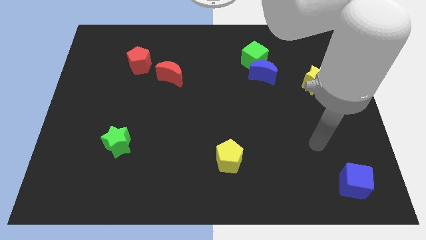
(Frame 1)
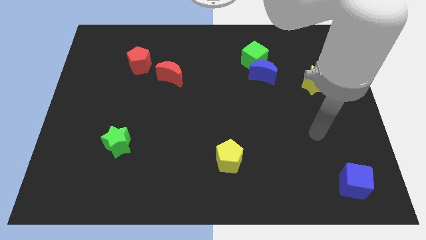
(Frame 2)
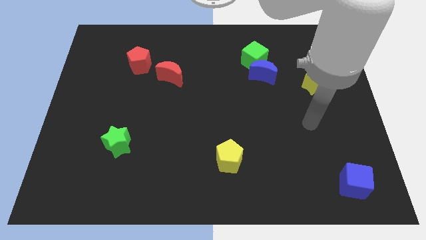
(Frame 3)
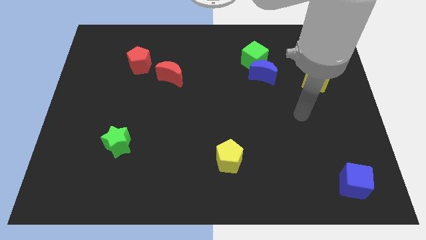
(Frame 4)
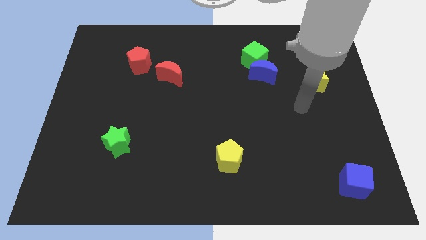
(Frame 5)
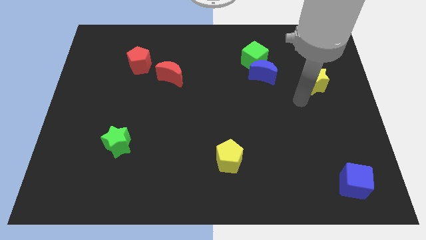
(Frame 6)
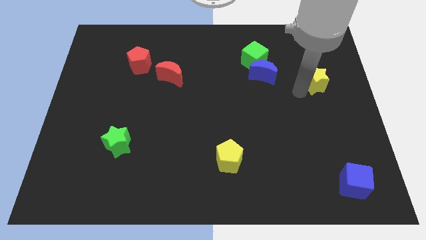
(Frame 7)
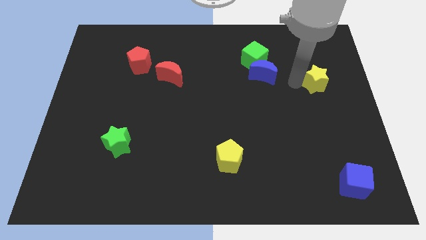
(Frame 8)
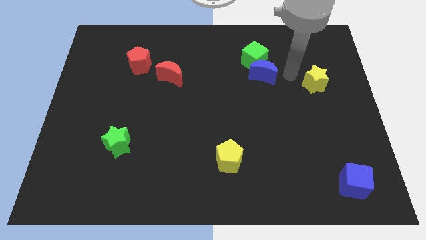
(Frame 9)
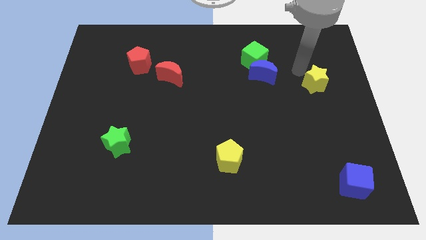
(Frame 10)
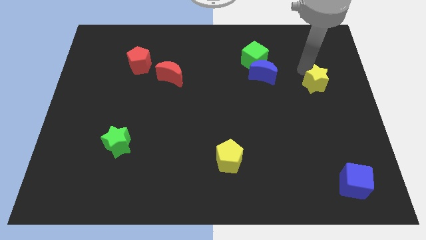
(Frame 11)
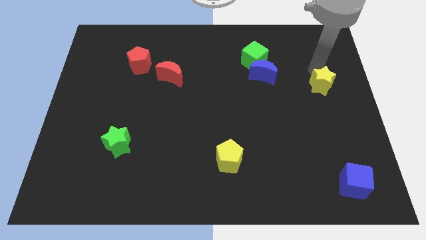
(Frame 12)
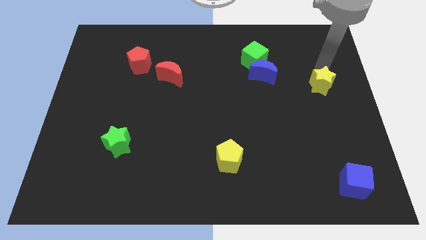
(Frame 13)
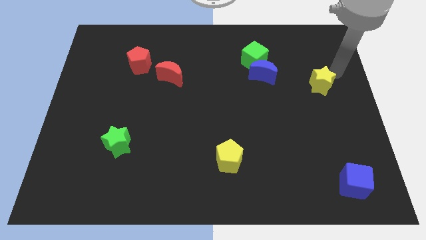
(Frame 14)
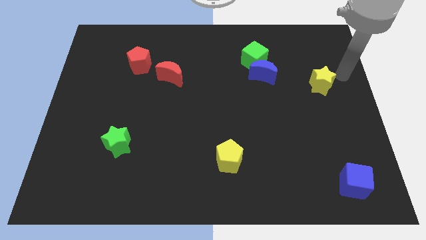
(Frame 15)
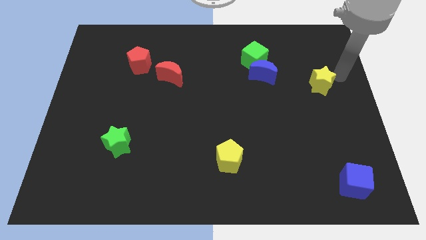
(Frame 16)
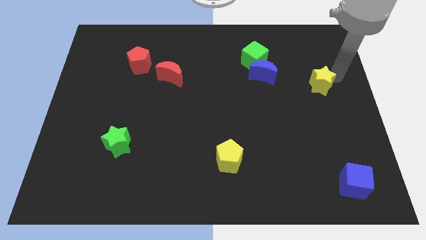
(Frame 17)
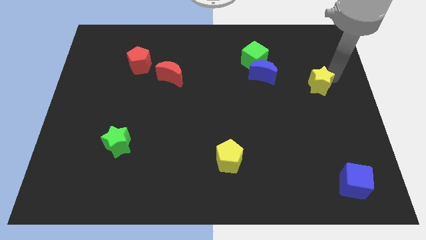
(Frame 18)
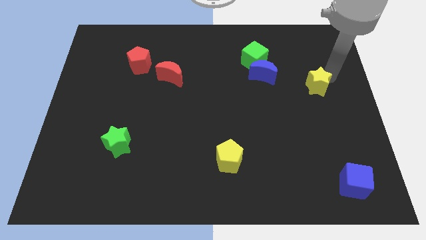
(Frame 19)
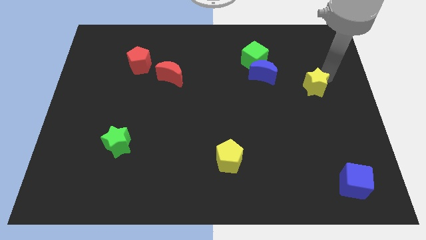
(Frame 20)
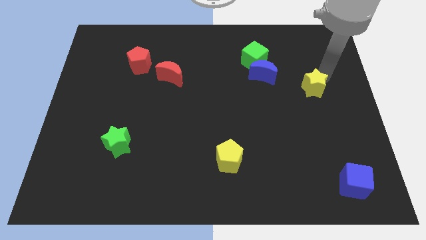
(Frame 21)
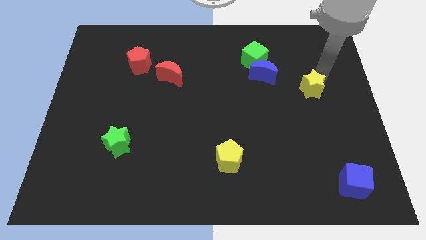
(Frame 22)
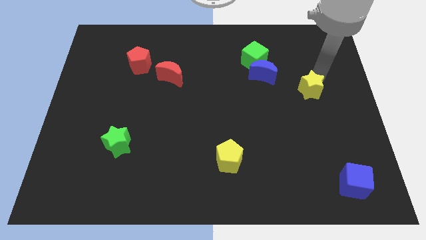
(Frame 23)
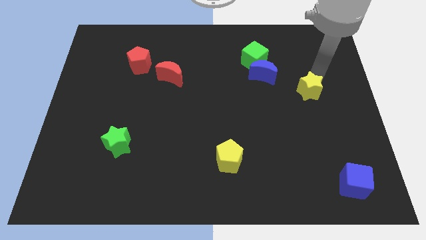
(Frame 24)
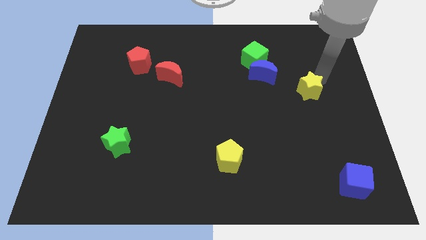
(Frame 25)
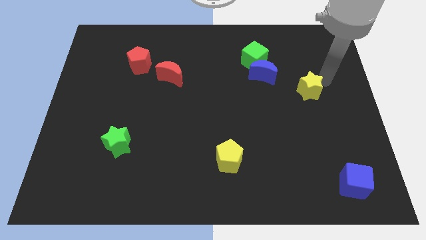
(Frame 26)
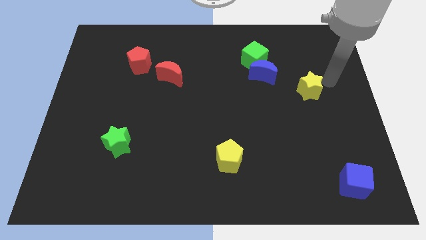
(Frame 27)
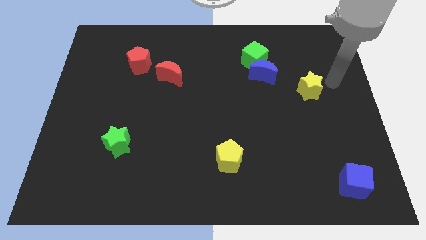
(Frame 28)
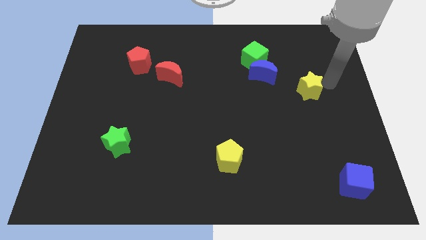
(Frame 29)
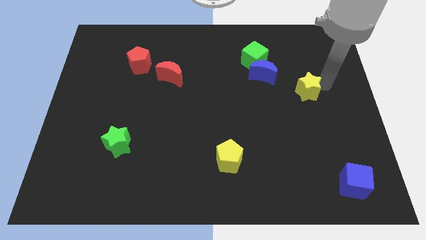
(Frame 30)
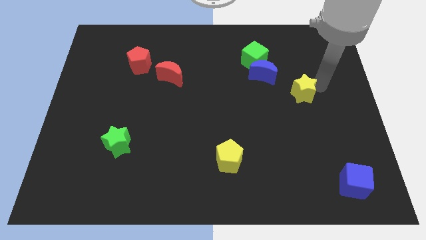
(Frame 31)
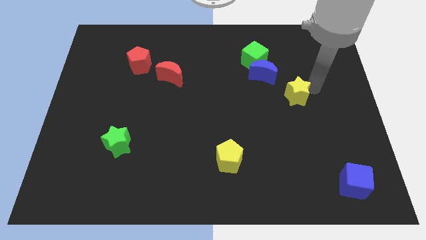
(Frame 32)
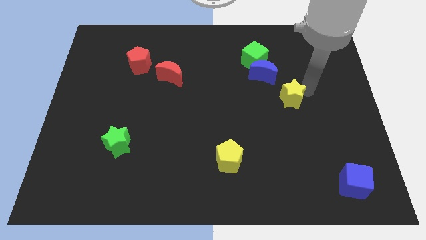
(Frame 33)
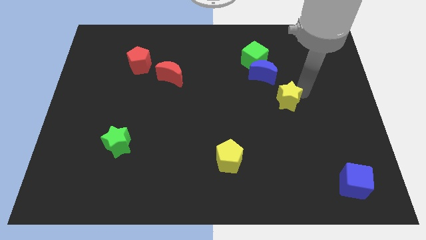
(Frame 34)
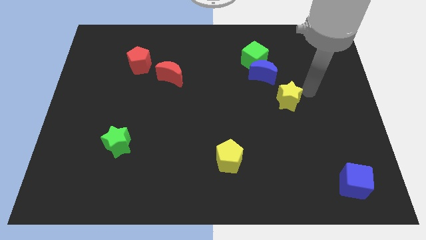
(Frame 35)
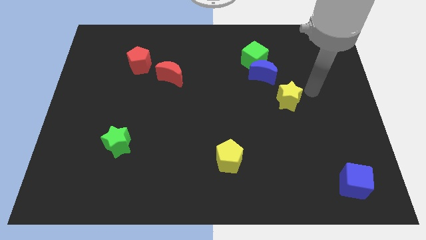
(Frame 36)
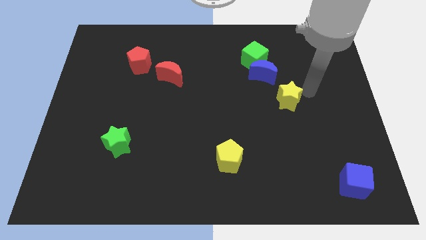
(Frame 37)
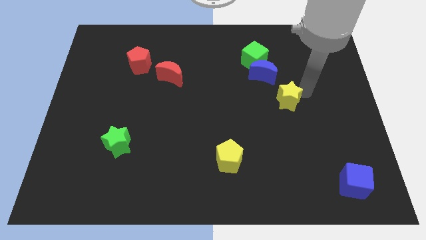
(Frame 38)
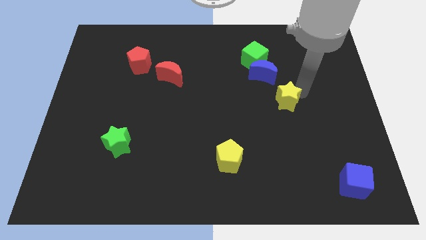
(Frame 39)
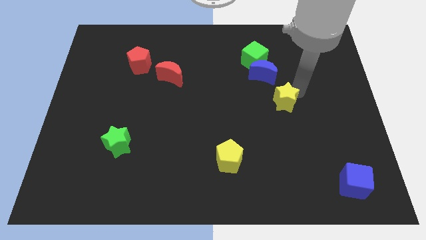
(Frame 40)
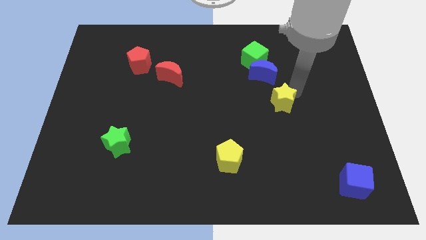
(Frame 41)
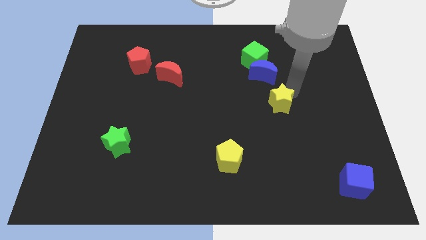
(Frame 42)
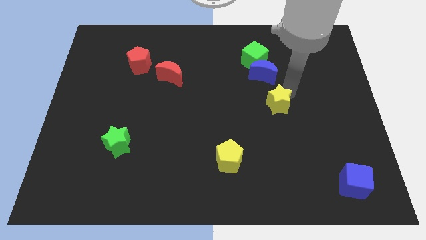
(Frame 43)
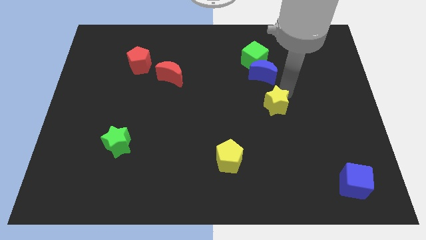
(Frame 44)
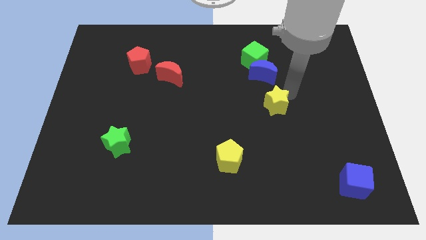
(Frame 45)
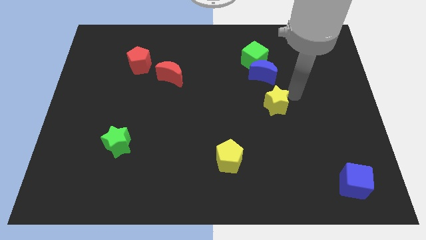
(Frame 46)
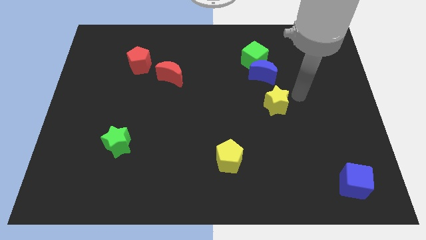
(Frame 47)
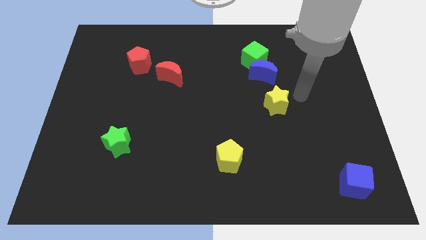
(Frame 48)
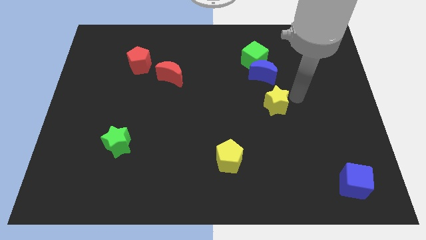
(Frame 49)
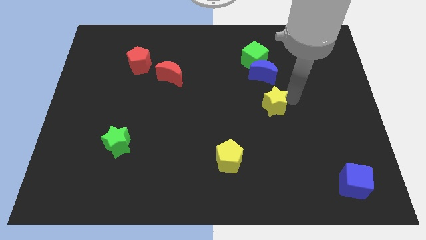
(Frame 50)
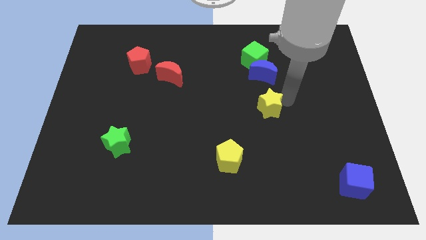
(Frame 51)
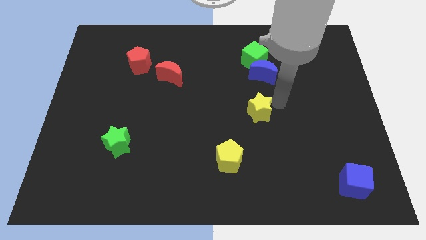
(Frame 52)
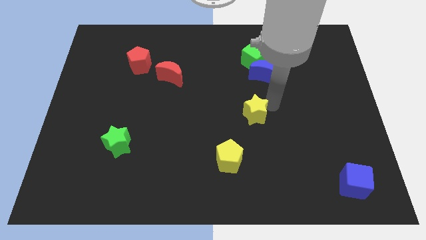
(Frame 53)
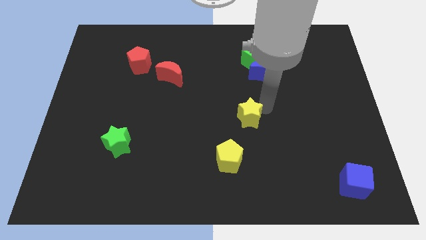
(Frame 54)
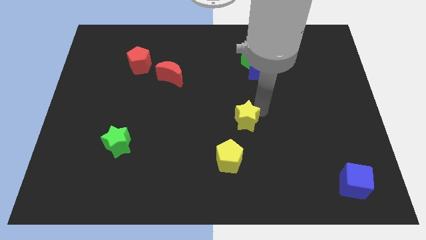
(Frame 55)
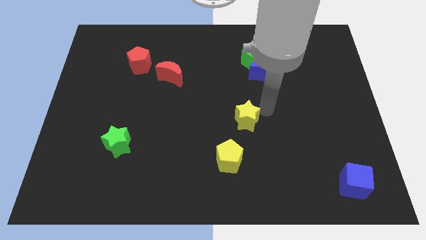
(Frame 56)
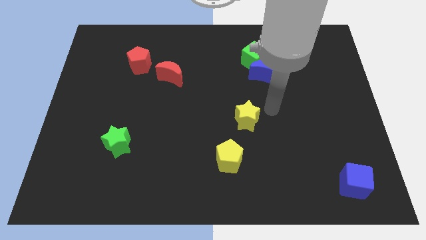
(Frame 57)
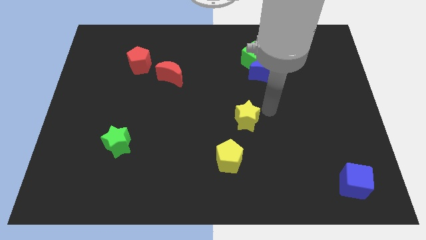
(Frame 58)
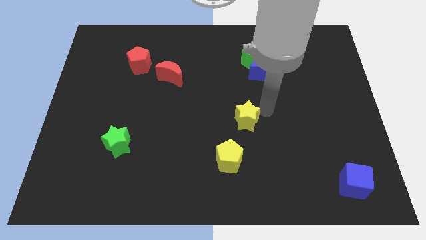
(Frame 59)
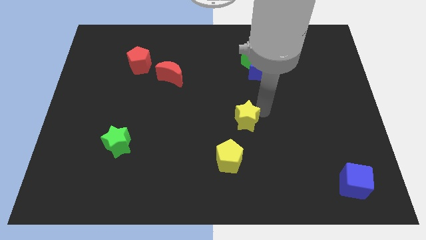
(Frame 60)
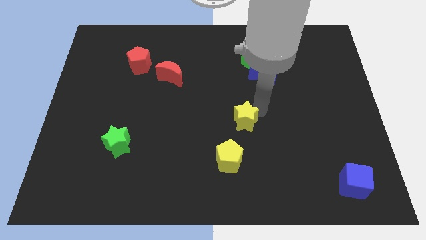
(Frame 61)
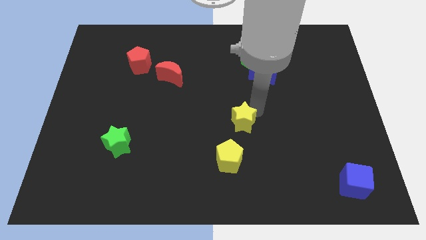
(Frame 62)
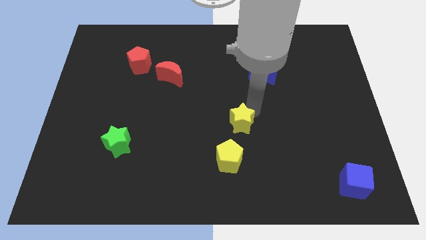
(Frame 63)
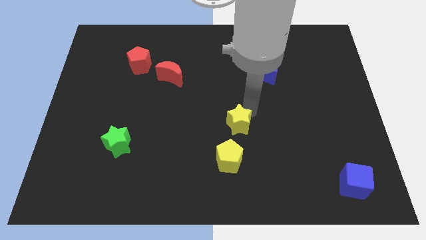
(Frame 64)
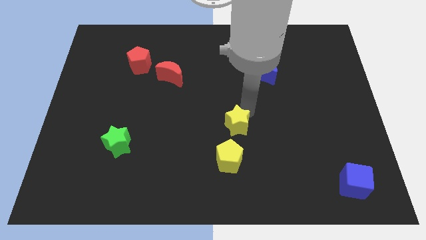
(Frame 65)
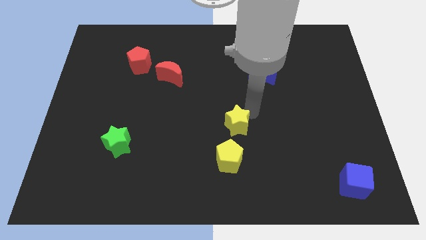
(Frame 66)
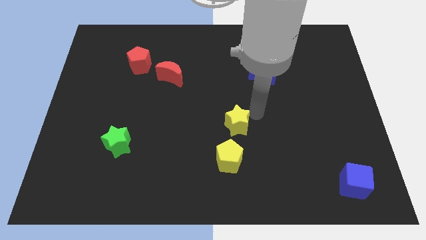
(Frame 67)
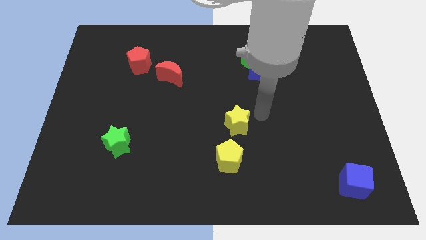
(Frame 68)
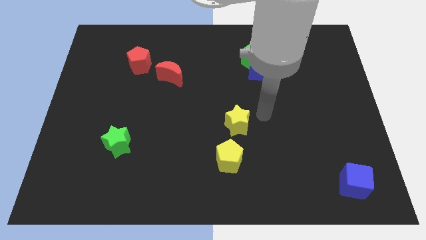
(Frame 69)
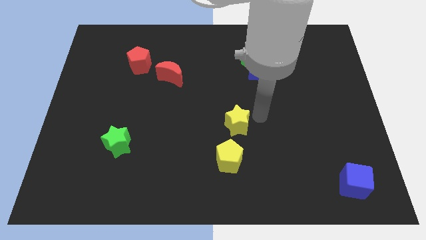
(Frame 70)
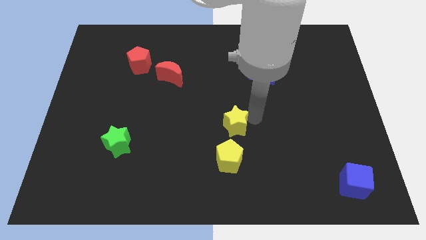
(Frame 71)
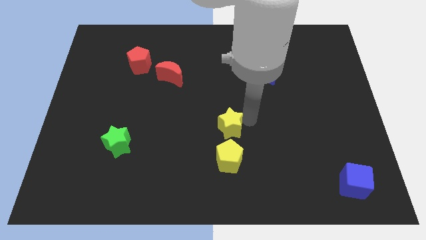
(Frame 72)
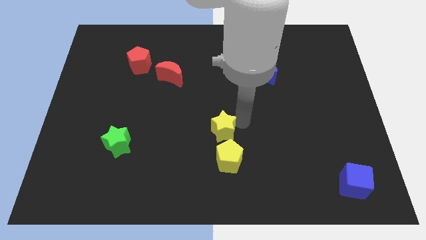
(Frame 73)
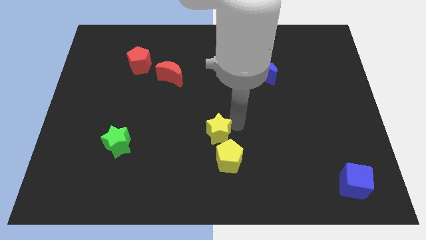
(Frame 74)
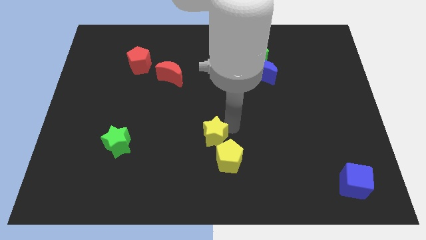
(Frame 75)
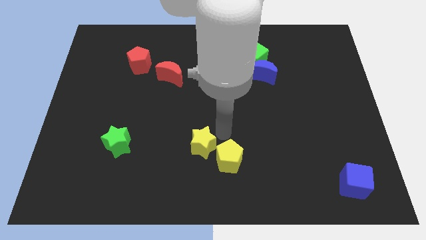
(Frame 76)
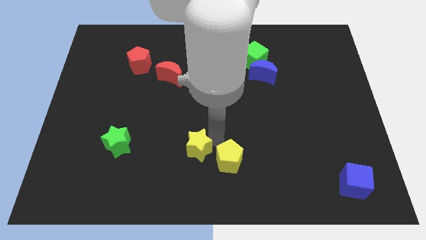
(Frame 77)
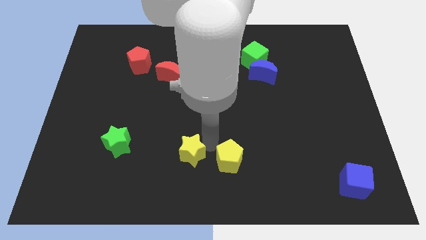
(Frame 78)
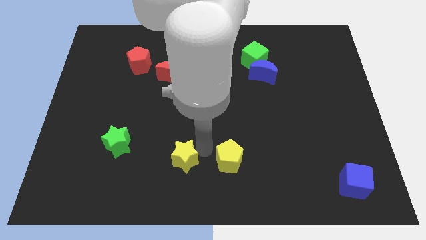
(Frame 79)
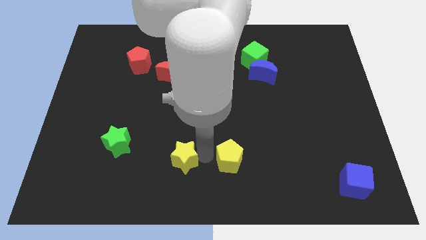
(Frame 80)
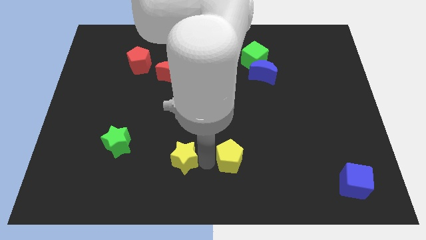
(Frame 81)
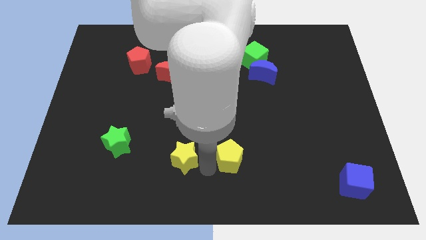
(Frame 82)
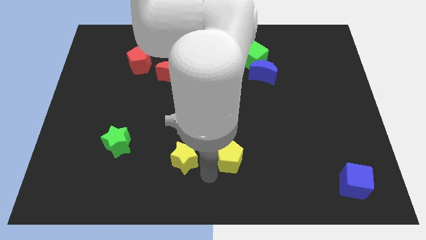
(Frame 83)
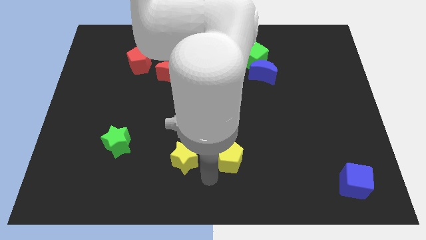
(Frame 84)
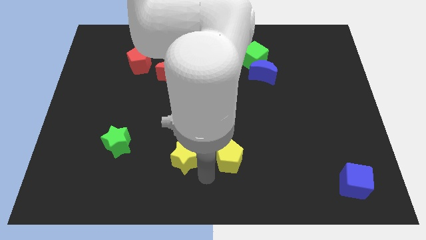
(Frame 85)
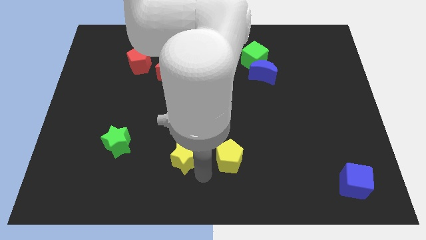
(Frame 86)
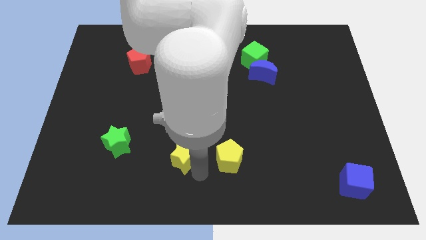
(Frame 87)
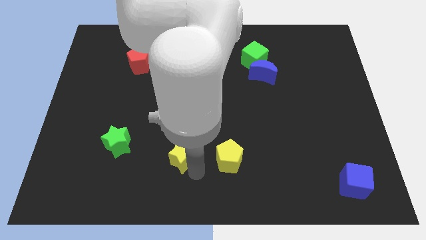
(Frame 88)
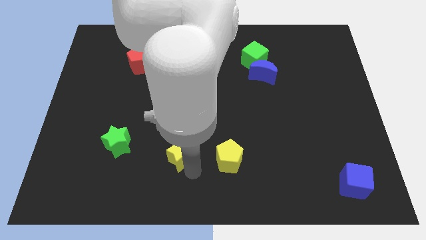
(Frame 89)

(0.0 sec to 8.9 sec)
move the yellow star just right of the green star
